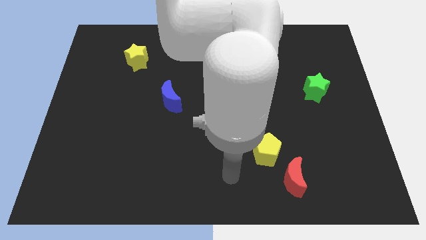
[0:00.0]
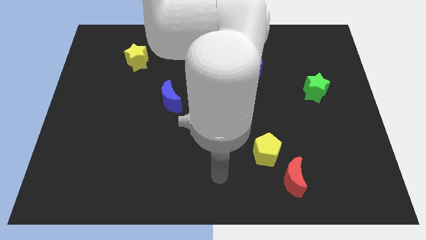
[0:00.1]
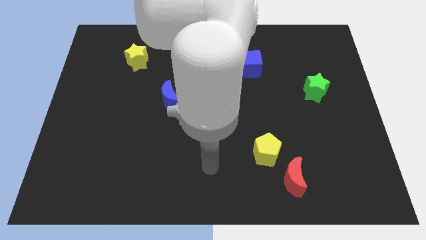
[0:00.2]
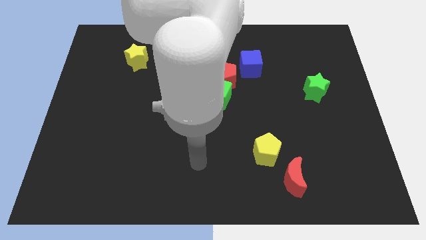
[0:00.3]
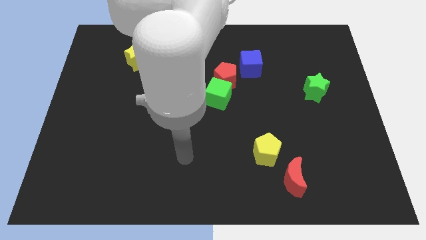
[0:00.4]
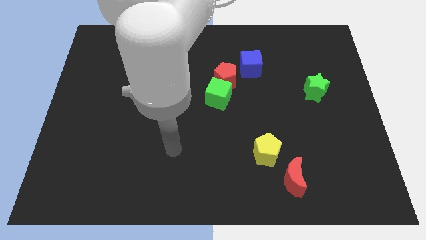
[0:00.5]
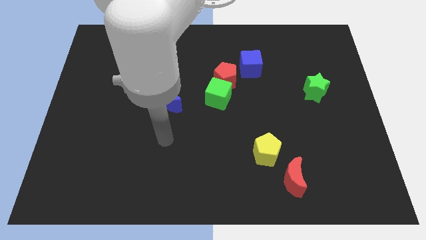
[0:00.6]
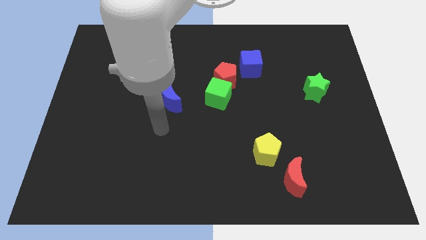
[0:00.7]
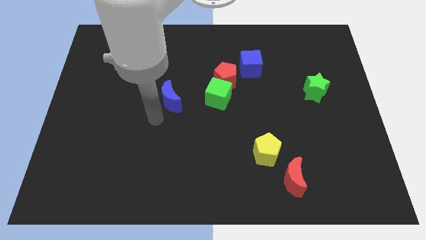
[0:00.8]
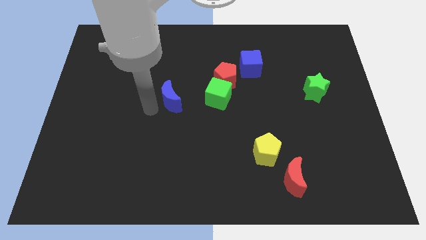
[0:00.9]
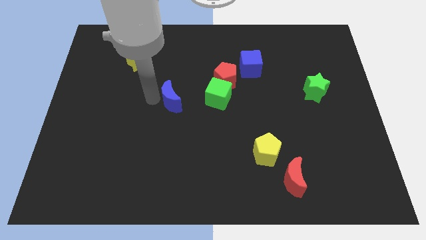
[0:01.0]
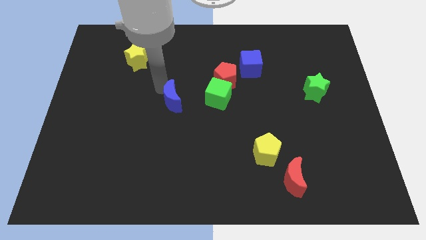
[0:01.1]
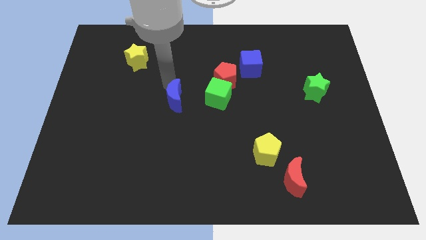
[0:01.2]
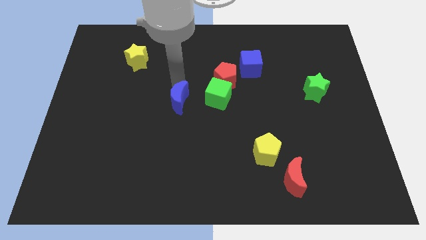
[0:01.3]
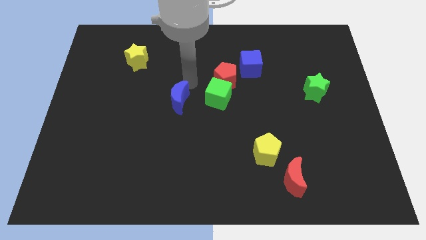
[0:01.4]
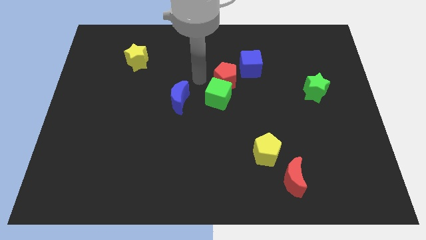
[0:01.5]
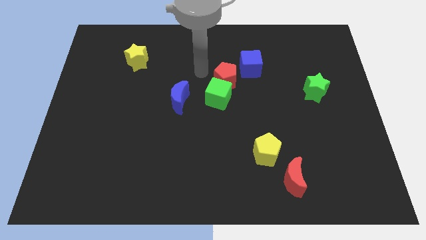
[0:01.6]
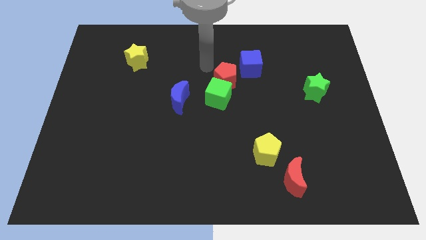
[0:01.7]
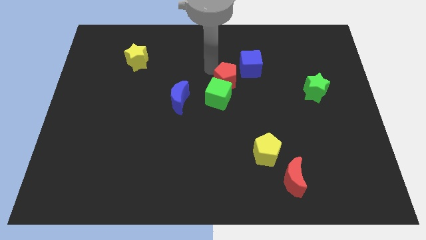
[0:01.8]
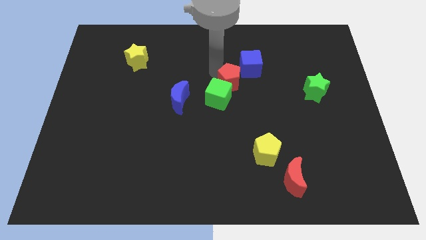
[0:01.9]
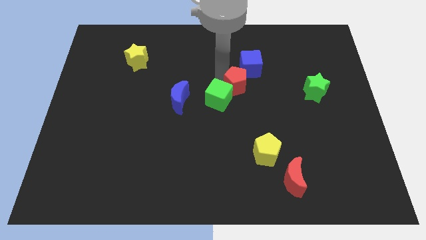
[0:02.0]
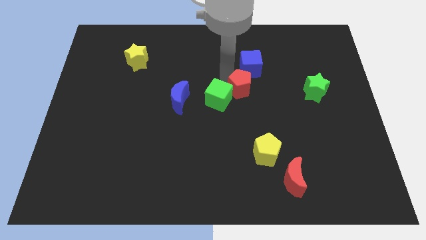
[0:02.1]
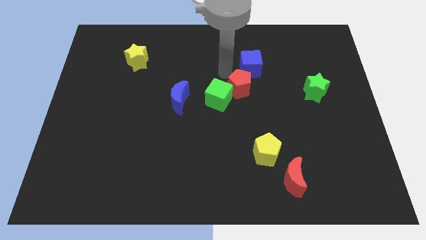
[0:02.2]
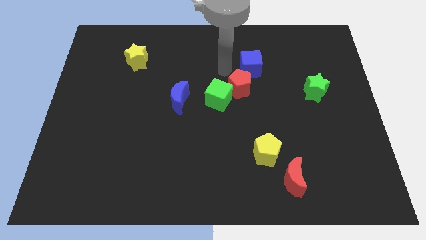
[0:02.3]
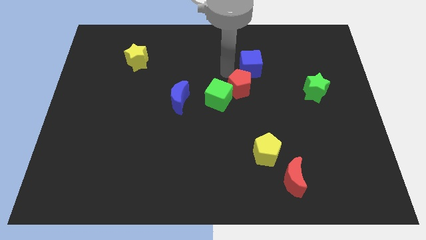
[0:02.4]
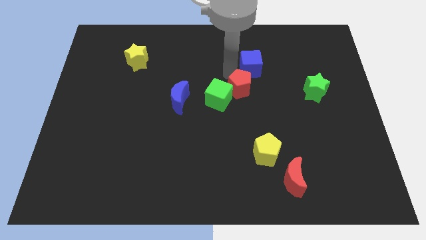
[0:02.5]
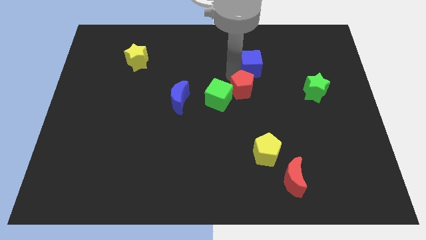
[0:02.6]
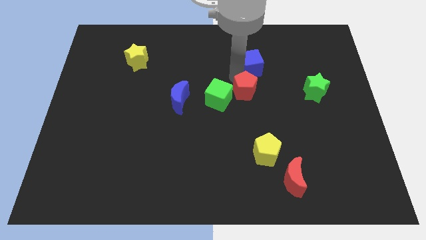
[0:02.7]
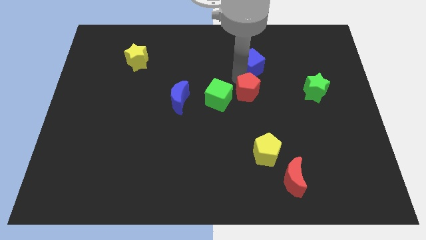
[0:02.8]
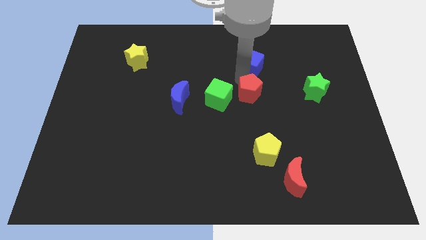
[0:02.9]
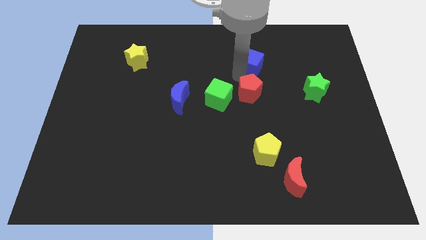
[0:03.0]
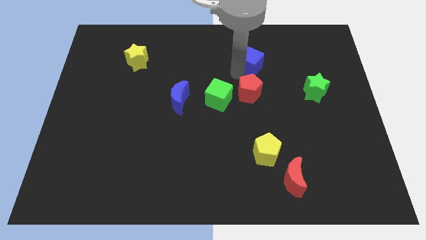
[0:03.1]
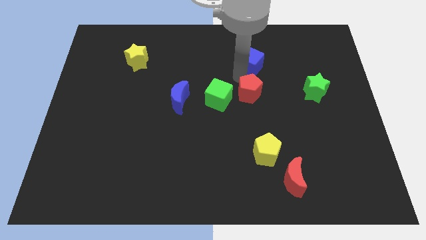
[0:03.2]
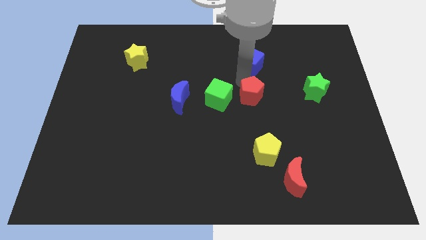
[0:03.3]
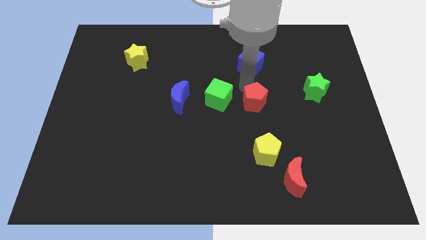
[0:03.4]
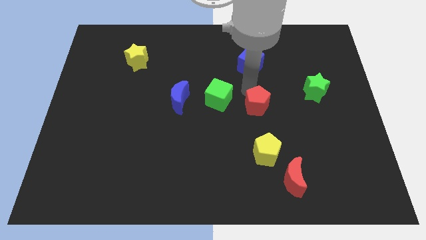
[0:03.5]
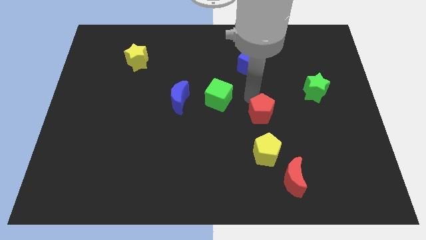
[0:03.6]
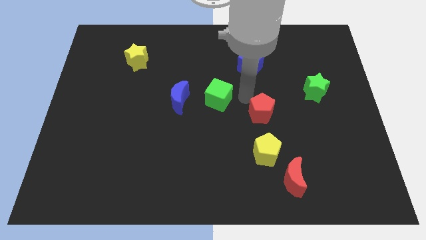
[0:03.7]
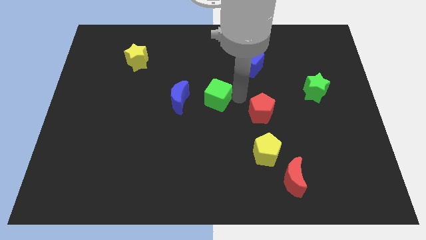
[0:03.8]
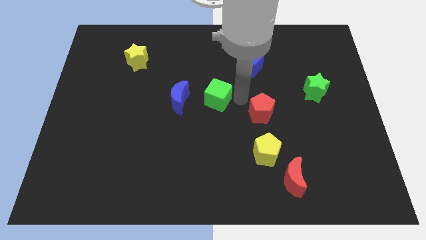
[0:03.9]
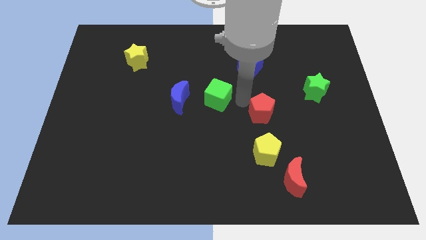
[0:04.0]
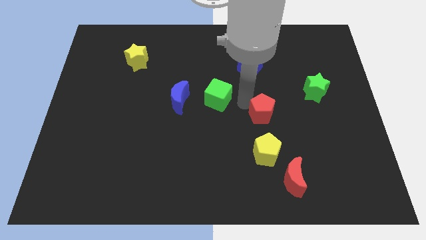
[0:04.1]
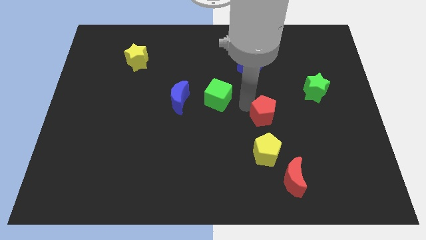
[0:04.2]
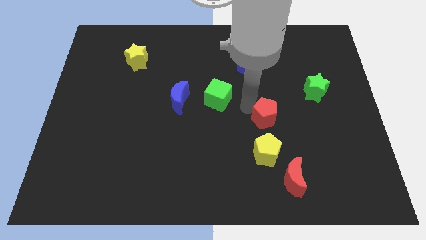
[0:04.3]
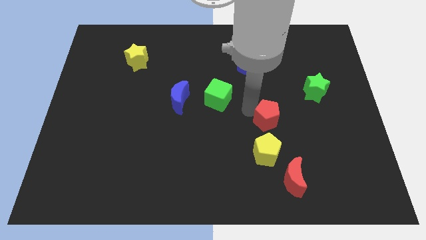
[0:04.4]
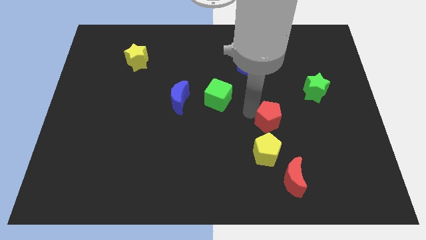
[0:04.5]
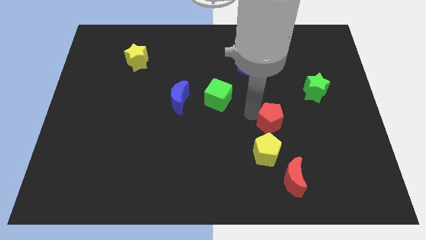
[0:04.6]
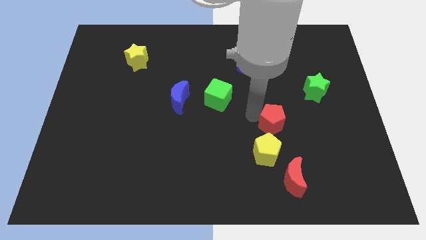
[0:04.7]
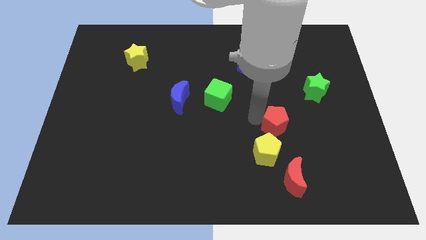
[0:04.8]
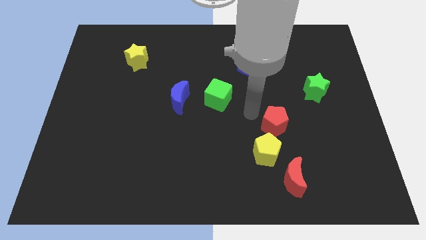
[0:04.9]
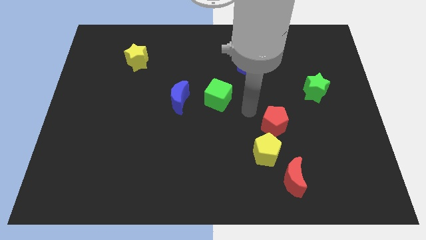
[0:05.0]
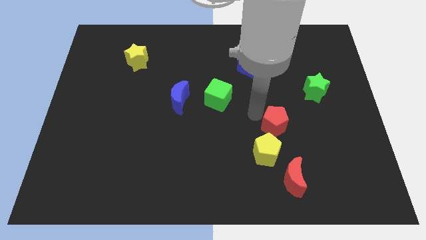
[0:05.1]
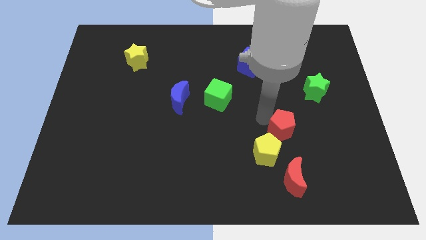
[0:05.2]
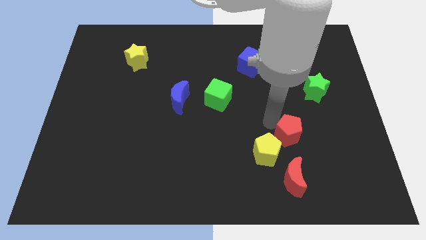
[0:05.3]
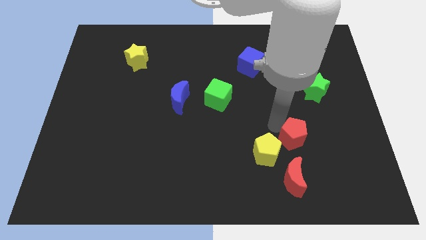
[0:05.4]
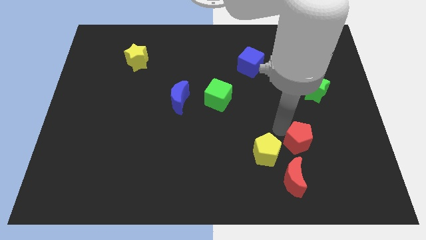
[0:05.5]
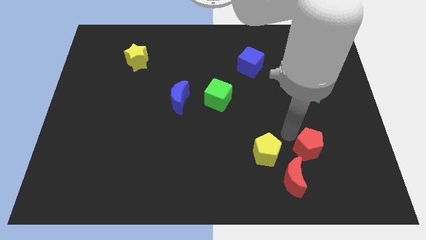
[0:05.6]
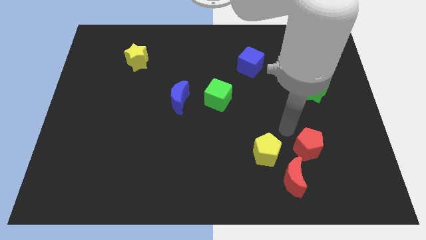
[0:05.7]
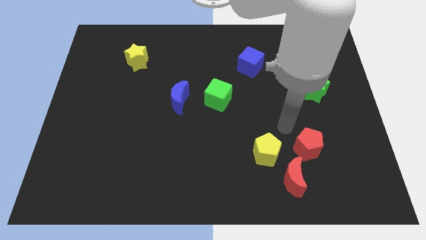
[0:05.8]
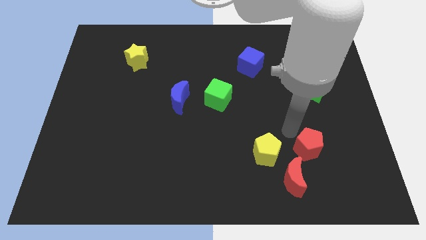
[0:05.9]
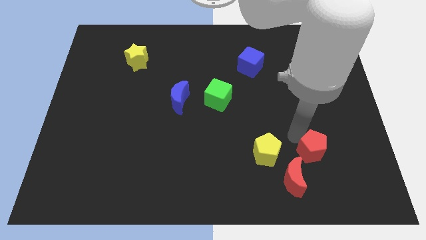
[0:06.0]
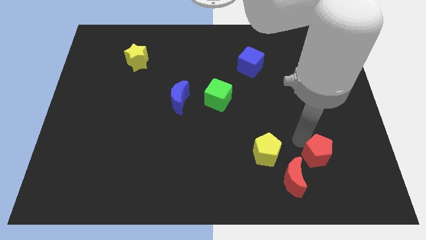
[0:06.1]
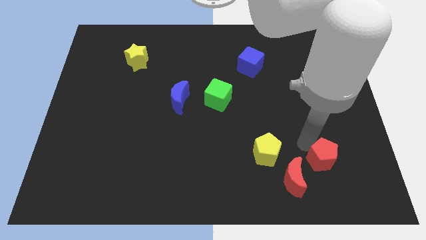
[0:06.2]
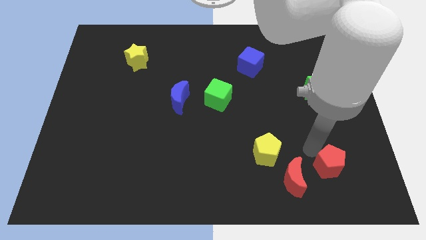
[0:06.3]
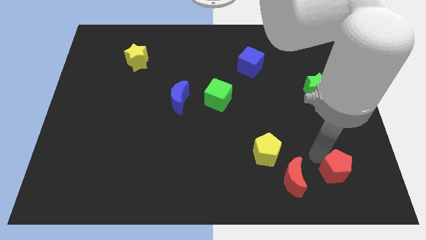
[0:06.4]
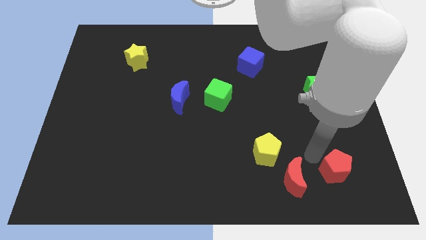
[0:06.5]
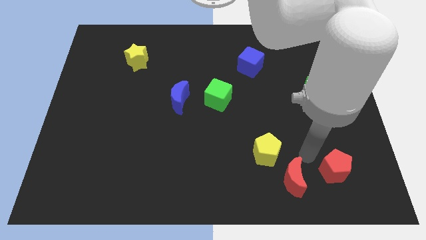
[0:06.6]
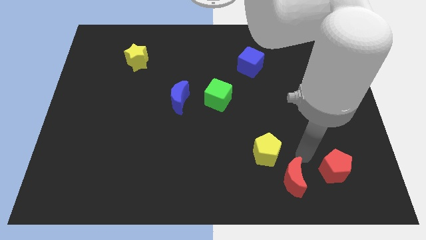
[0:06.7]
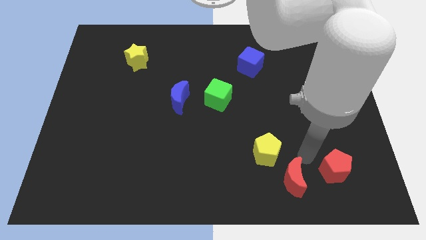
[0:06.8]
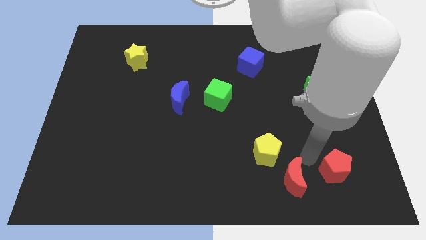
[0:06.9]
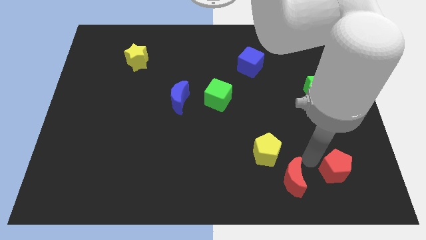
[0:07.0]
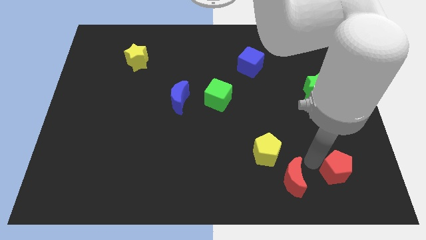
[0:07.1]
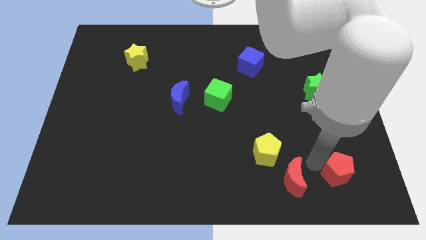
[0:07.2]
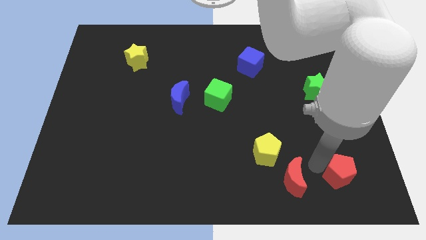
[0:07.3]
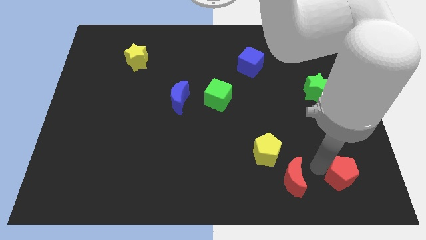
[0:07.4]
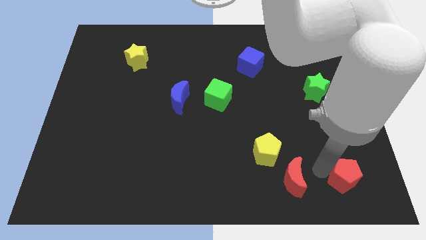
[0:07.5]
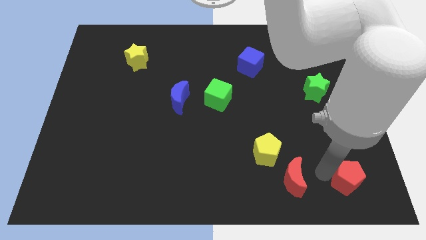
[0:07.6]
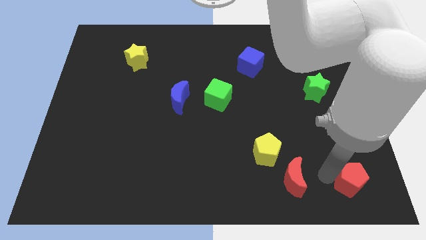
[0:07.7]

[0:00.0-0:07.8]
slide the red pentagon to the lower right corner
